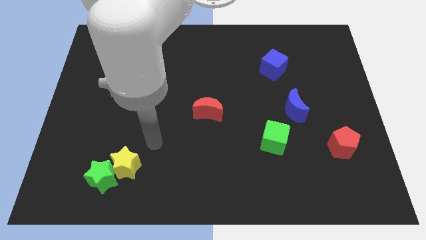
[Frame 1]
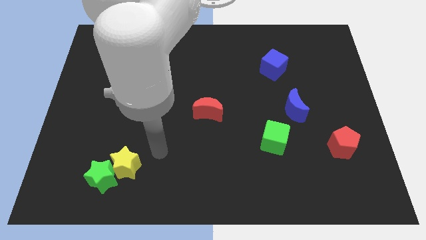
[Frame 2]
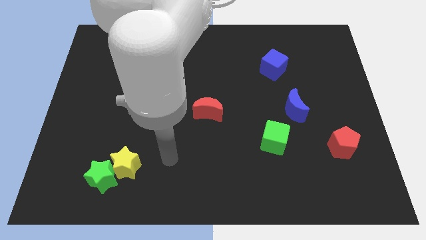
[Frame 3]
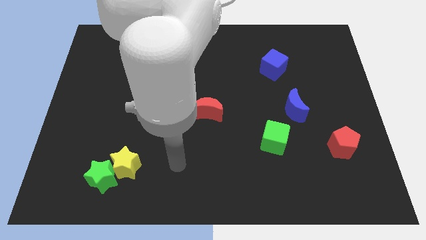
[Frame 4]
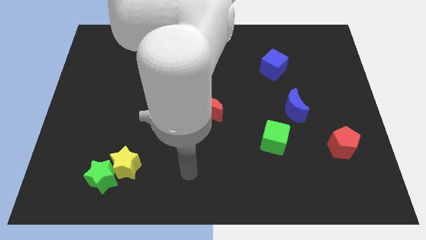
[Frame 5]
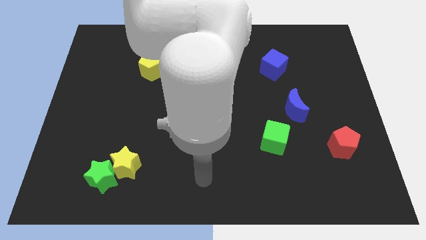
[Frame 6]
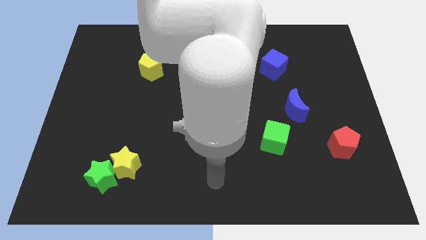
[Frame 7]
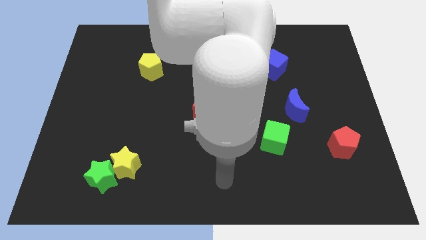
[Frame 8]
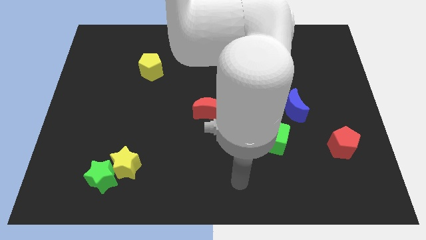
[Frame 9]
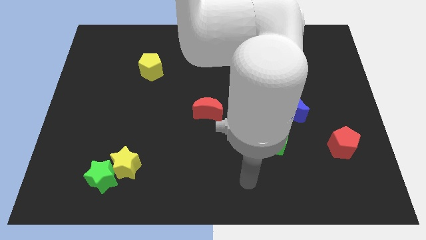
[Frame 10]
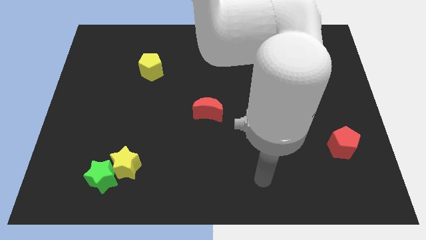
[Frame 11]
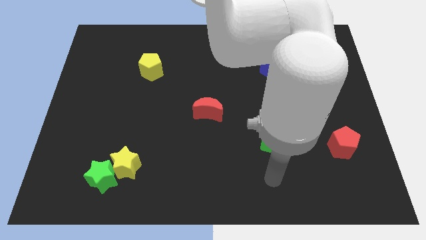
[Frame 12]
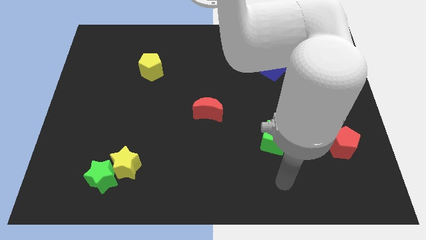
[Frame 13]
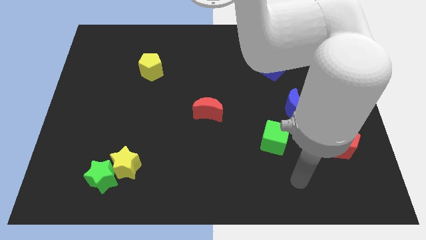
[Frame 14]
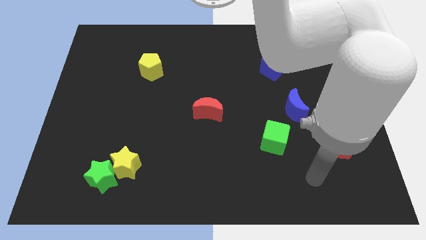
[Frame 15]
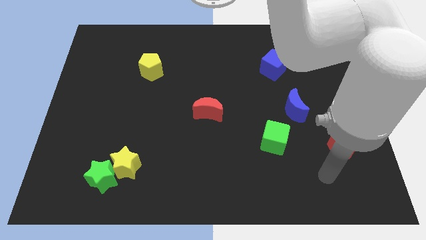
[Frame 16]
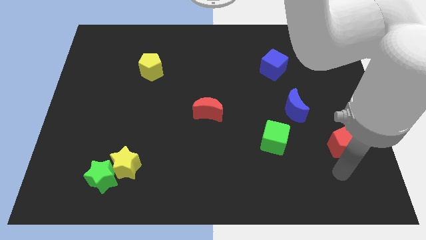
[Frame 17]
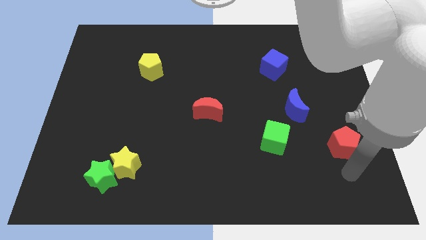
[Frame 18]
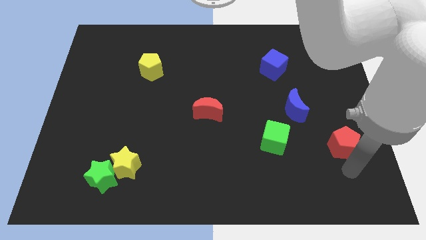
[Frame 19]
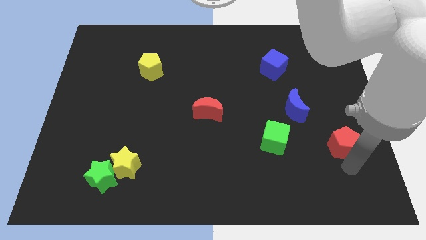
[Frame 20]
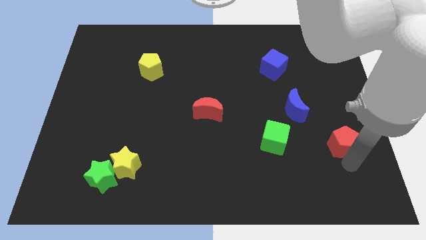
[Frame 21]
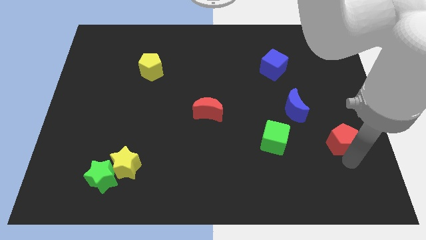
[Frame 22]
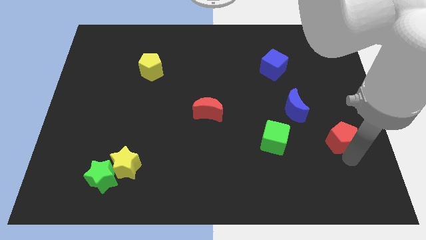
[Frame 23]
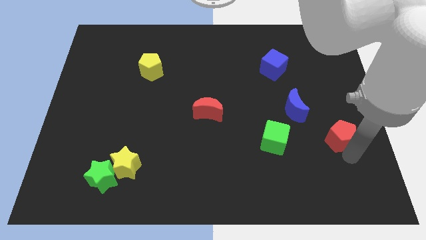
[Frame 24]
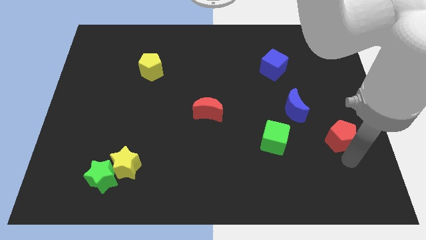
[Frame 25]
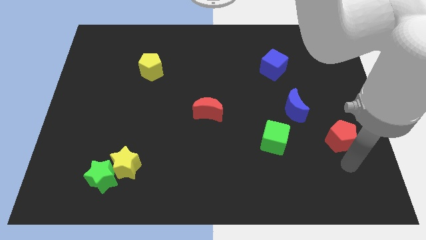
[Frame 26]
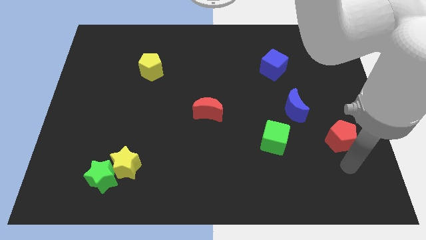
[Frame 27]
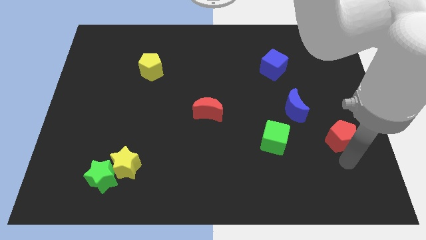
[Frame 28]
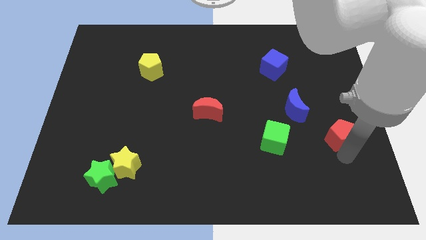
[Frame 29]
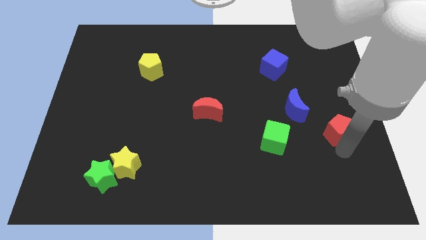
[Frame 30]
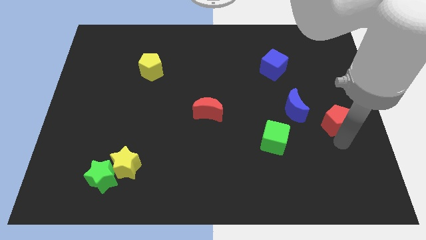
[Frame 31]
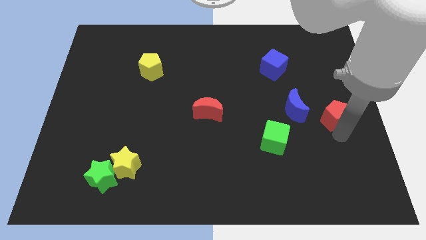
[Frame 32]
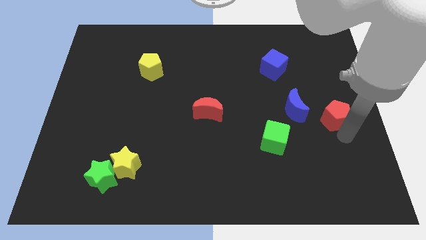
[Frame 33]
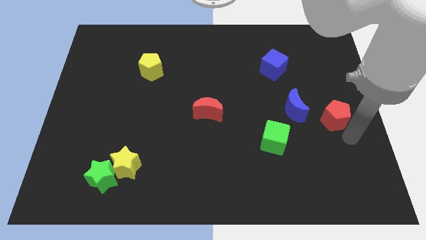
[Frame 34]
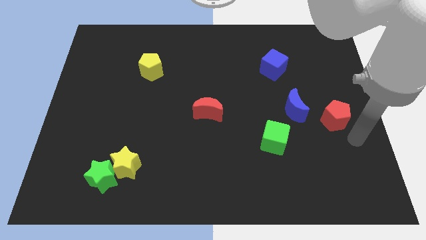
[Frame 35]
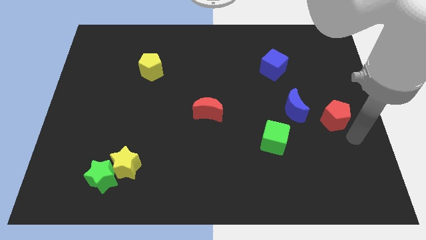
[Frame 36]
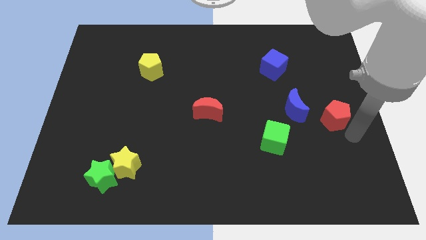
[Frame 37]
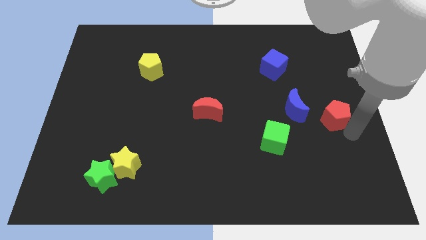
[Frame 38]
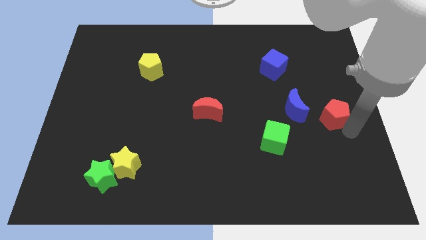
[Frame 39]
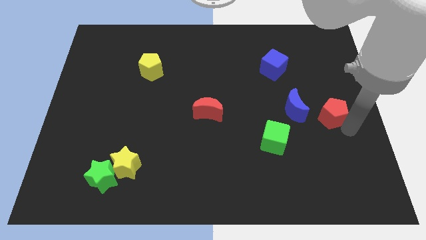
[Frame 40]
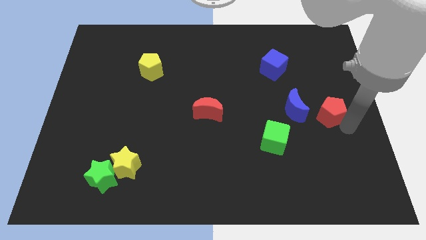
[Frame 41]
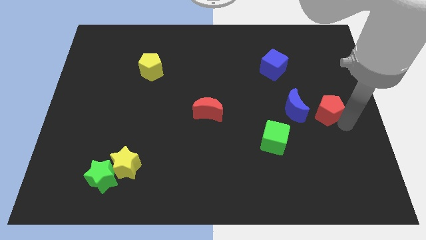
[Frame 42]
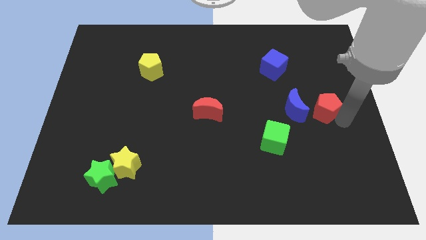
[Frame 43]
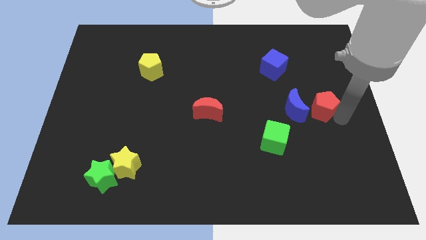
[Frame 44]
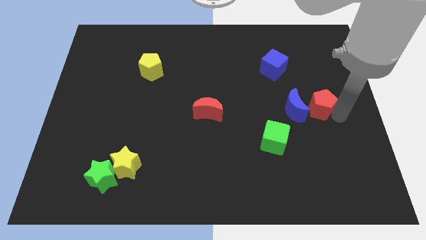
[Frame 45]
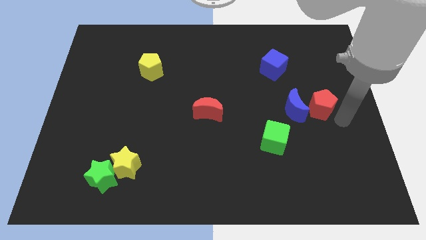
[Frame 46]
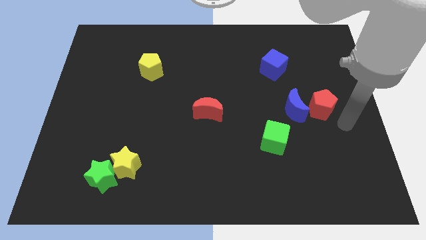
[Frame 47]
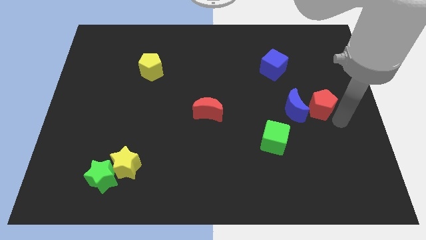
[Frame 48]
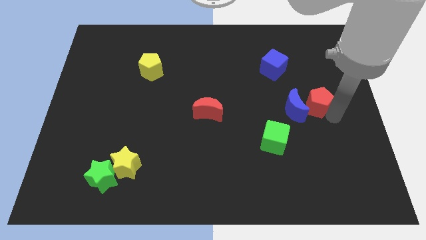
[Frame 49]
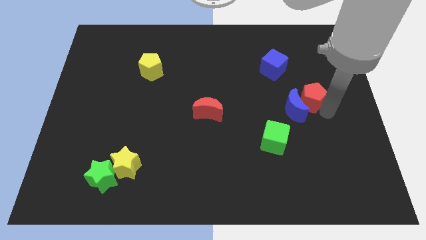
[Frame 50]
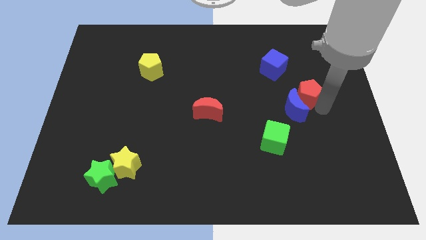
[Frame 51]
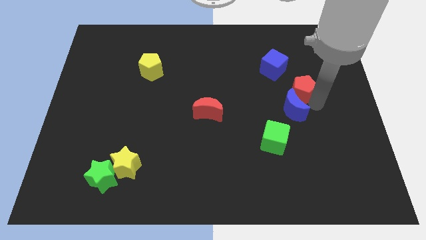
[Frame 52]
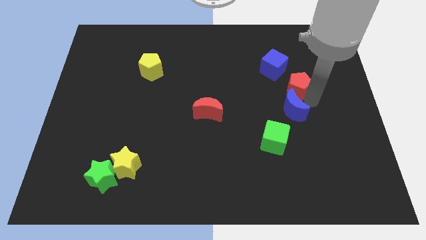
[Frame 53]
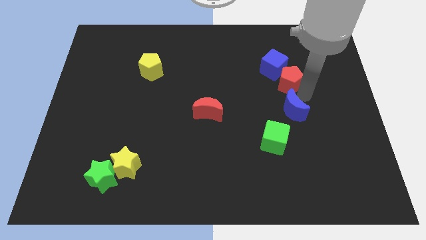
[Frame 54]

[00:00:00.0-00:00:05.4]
slide the red pentagon close to the blue cube

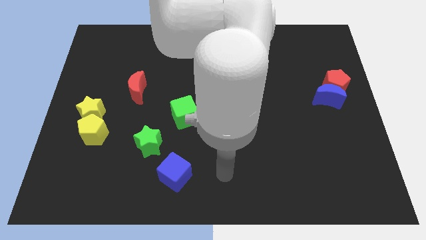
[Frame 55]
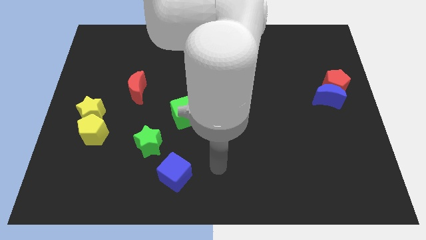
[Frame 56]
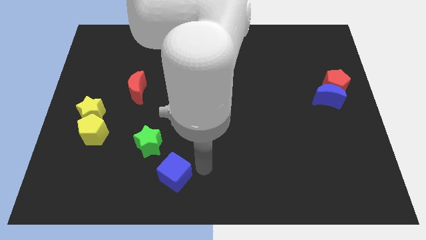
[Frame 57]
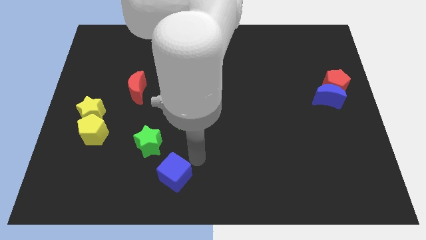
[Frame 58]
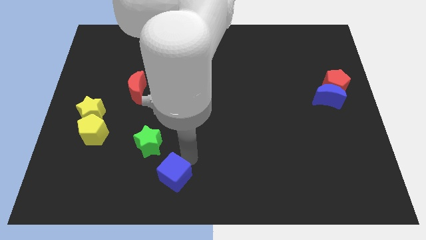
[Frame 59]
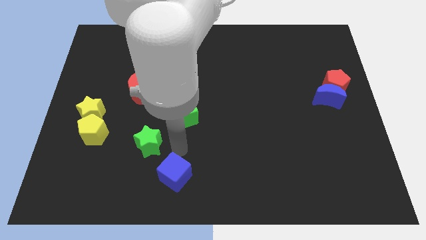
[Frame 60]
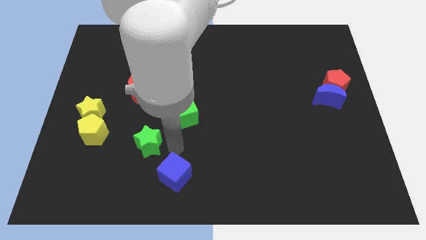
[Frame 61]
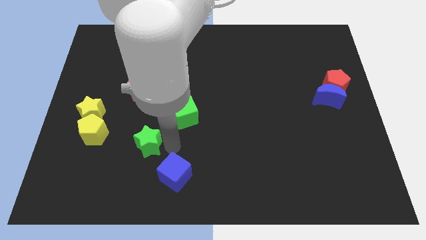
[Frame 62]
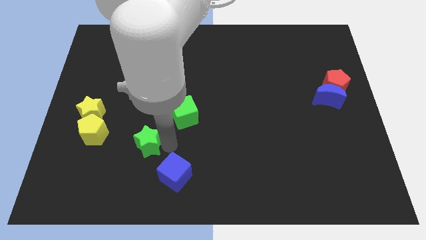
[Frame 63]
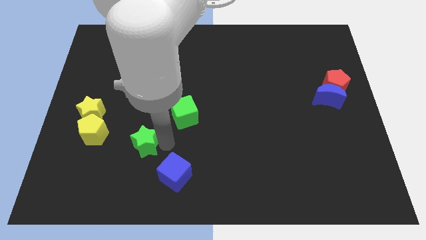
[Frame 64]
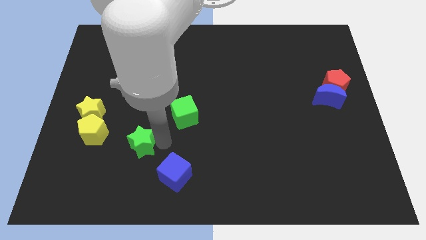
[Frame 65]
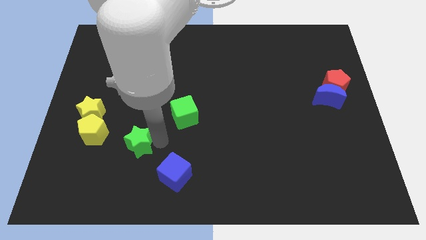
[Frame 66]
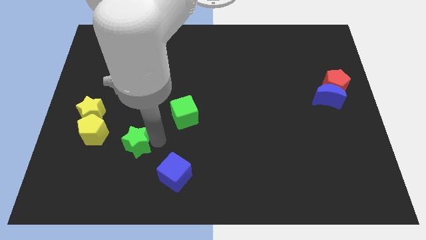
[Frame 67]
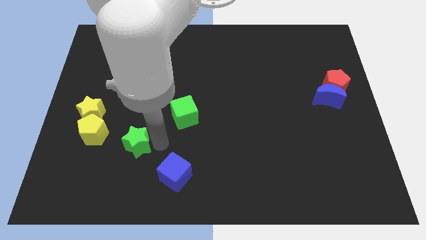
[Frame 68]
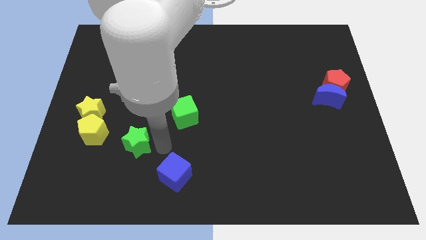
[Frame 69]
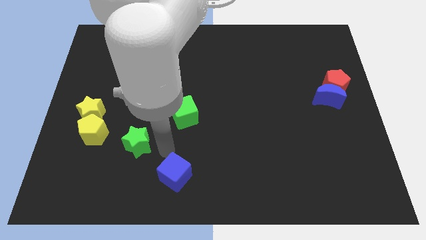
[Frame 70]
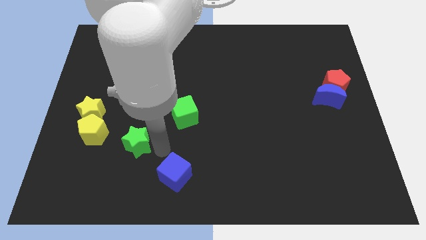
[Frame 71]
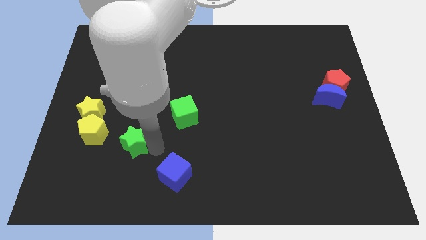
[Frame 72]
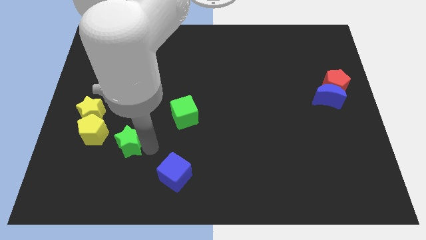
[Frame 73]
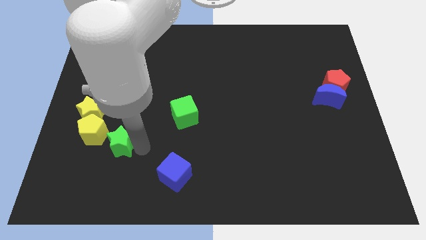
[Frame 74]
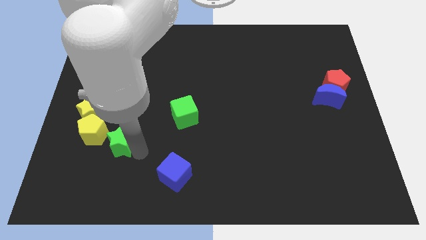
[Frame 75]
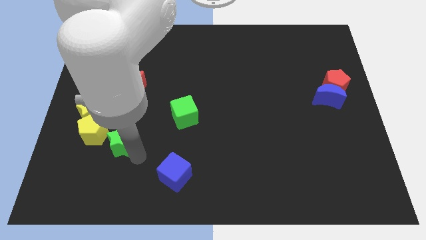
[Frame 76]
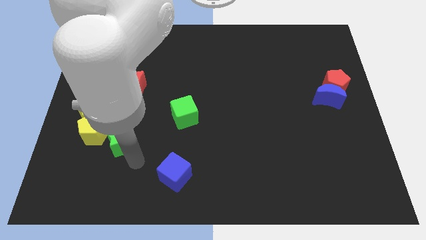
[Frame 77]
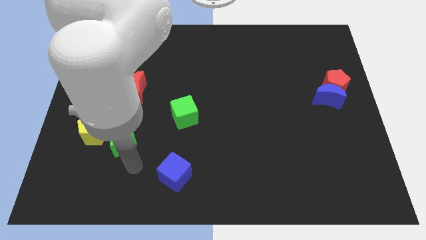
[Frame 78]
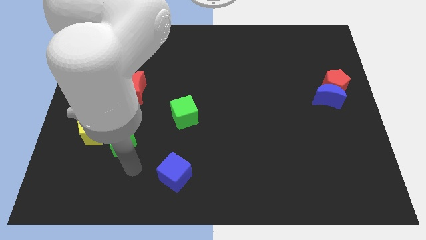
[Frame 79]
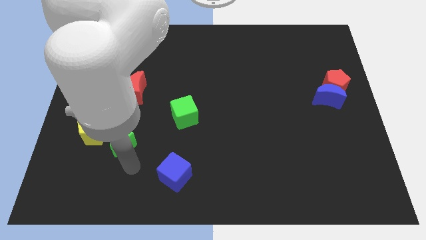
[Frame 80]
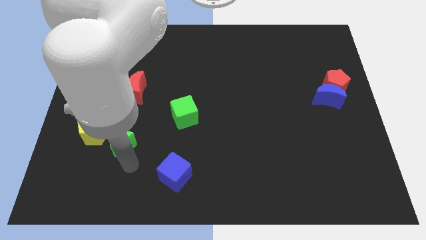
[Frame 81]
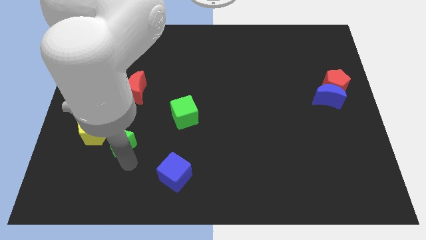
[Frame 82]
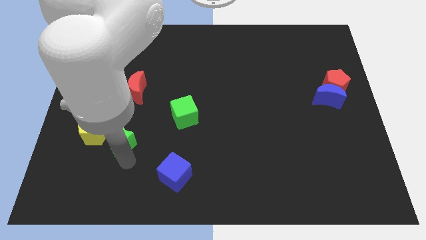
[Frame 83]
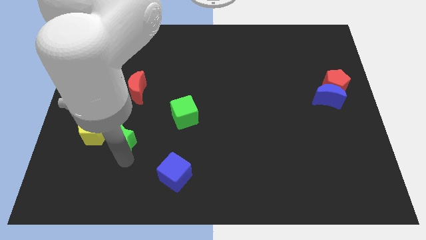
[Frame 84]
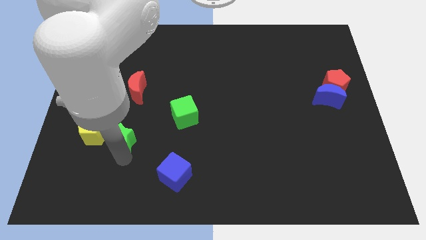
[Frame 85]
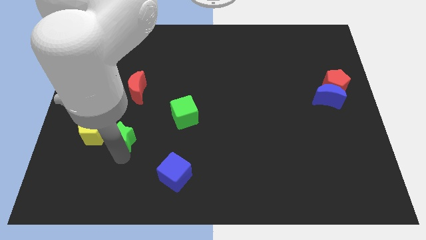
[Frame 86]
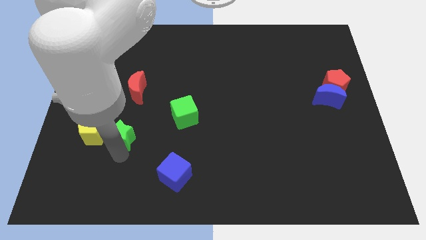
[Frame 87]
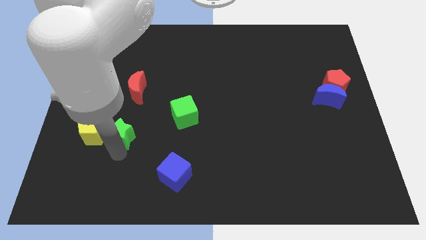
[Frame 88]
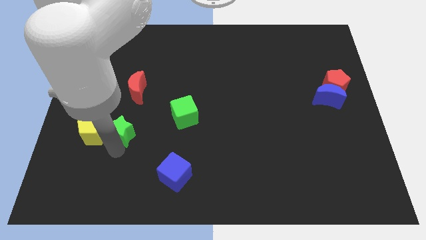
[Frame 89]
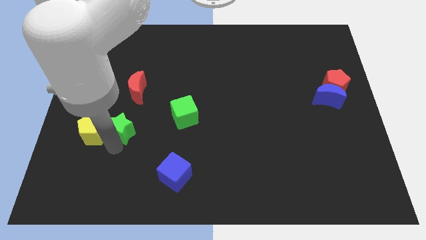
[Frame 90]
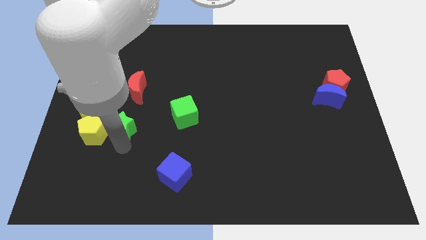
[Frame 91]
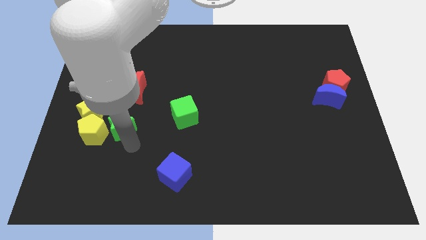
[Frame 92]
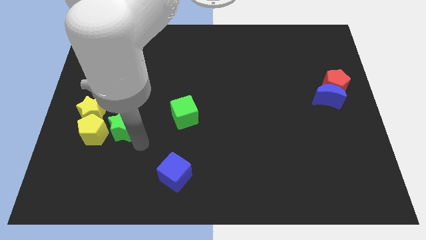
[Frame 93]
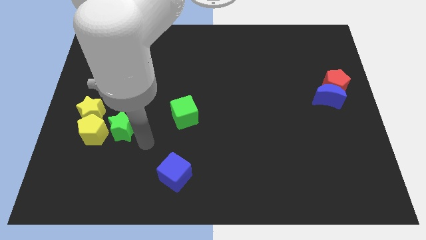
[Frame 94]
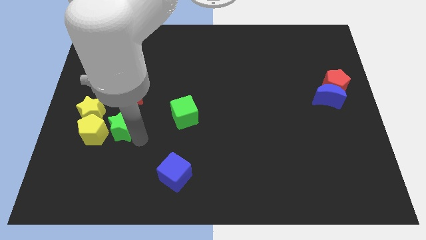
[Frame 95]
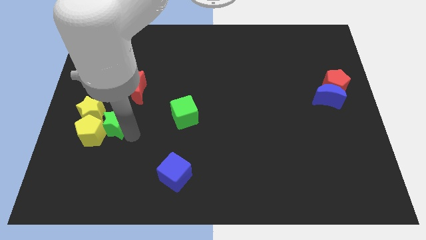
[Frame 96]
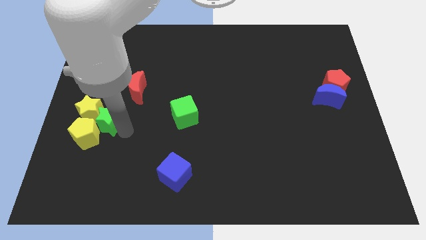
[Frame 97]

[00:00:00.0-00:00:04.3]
move the green star to the yellow star
